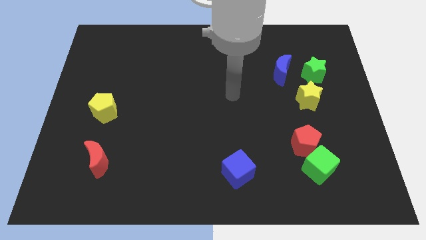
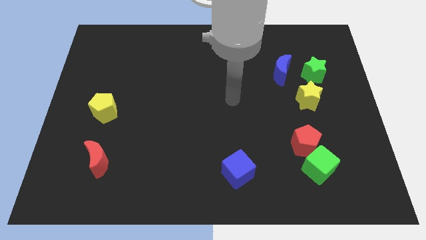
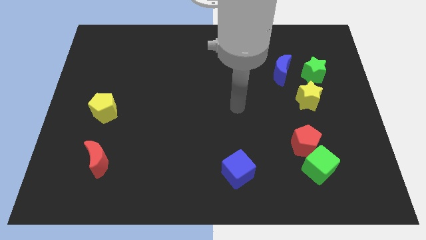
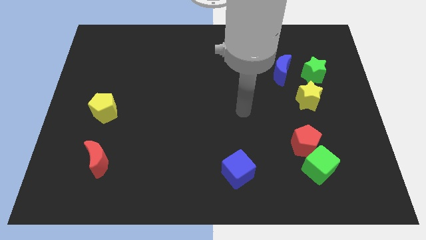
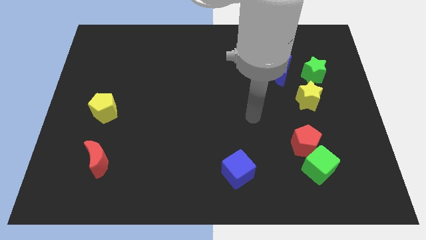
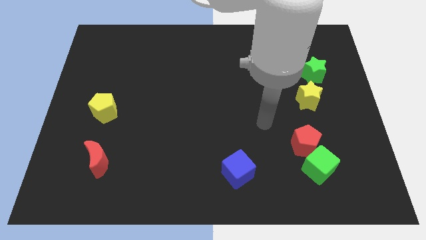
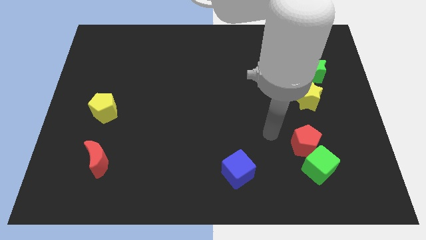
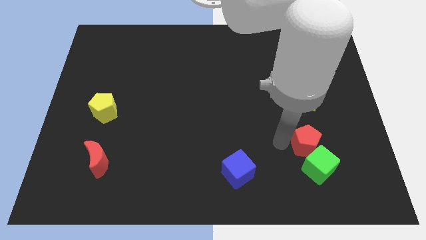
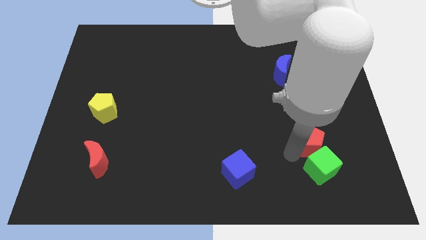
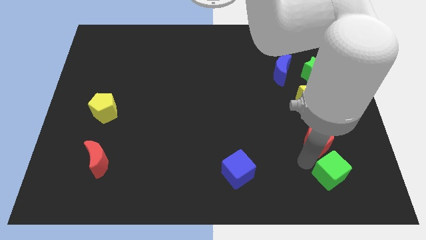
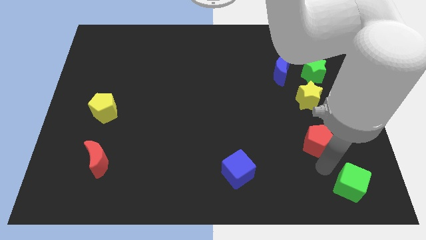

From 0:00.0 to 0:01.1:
move the red pentagon away from the green cube

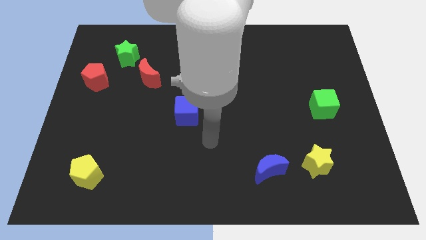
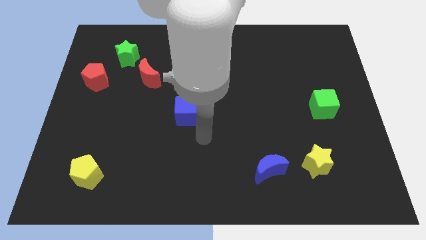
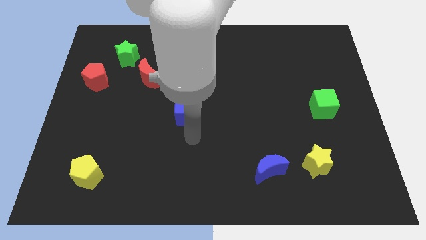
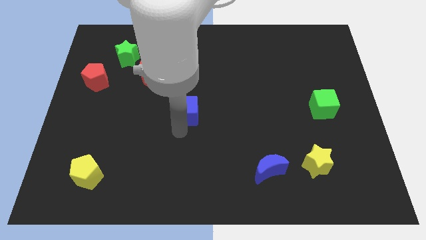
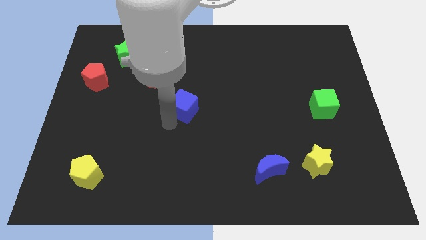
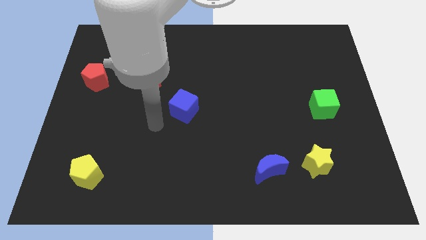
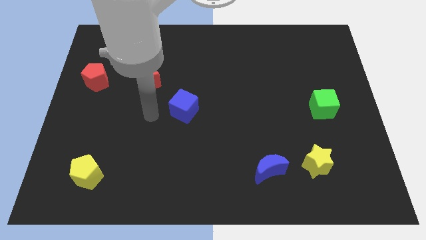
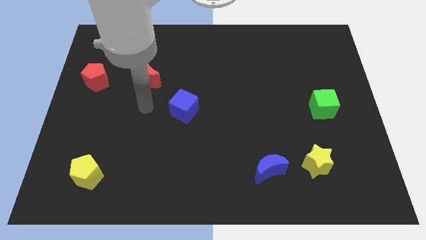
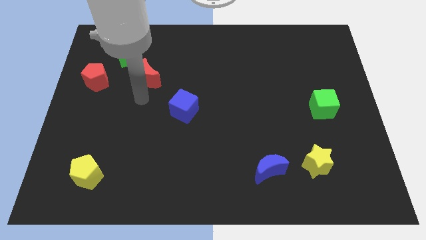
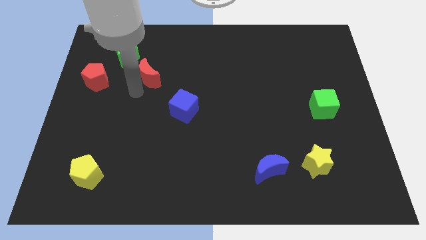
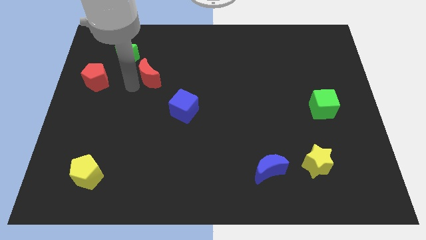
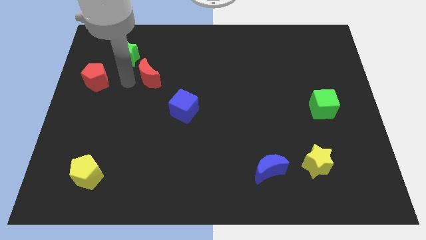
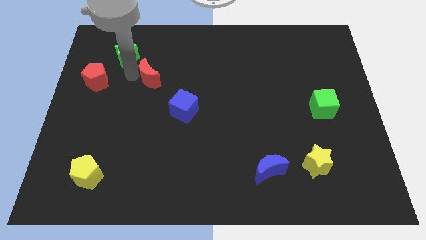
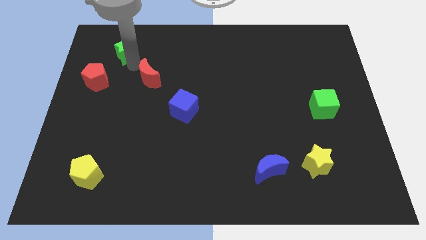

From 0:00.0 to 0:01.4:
separate the red moon from the green star

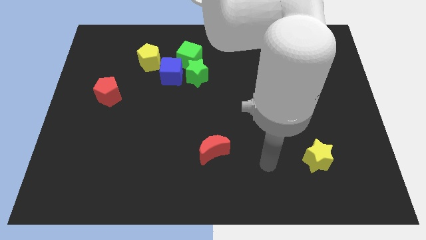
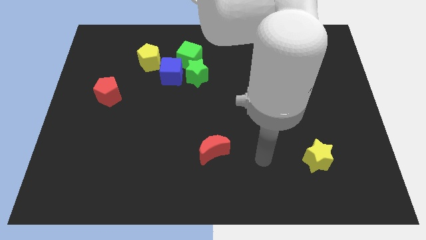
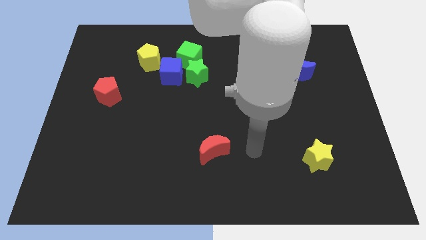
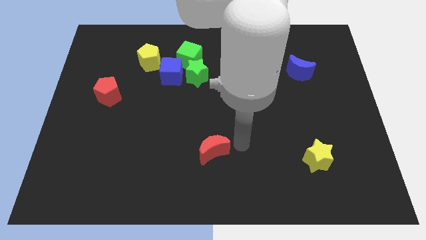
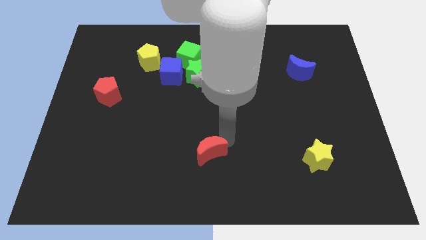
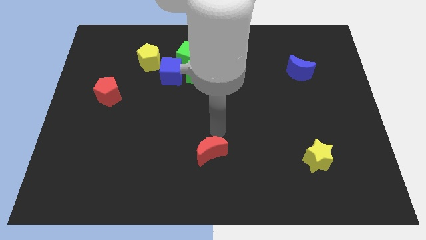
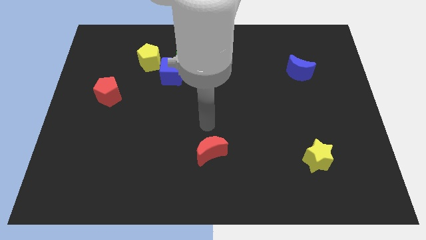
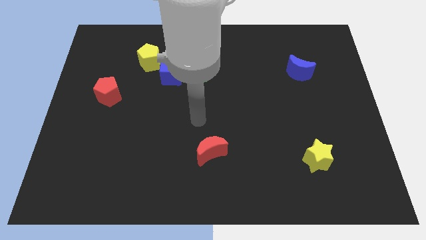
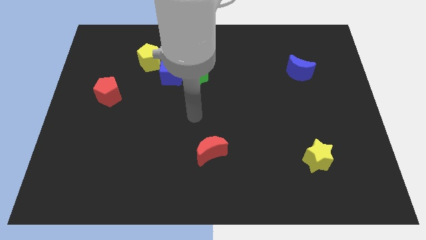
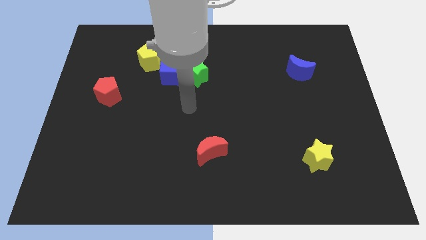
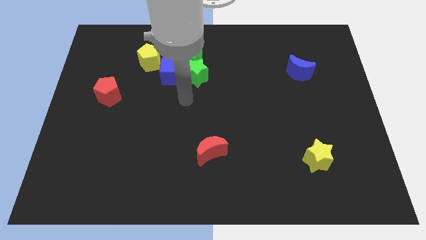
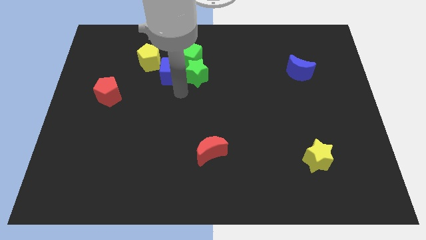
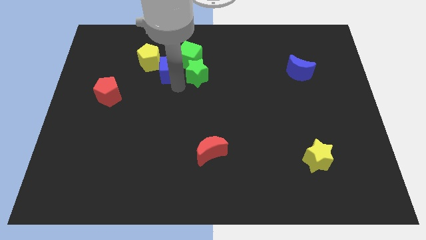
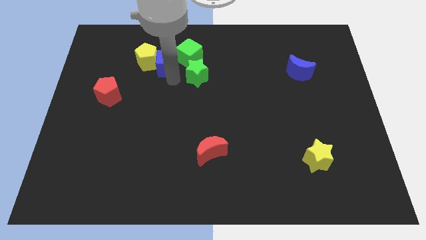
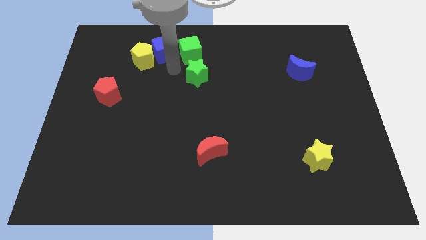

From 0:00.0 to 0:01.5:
move the green star away from the blue cube and green cube

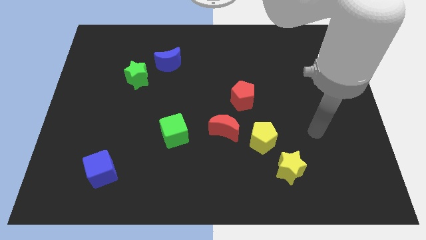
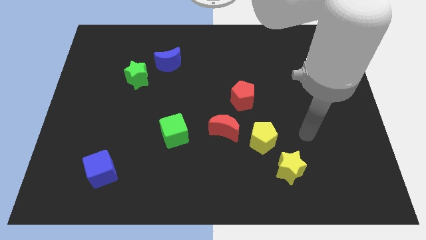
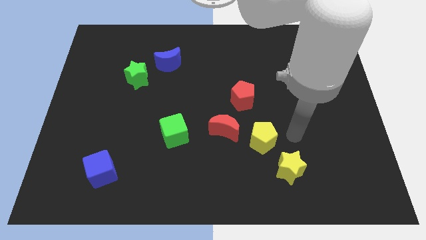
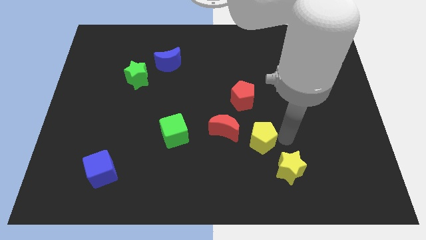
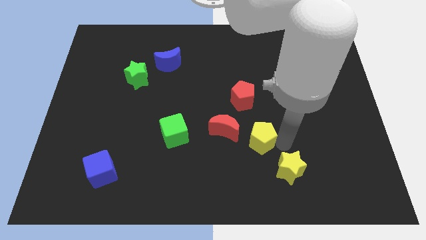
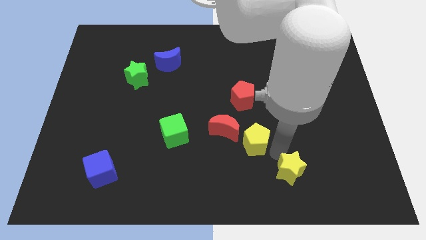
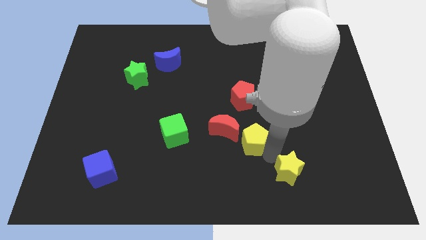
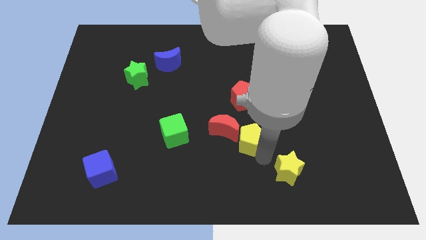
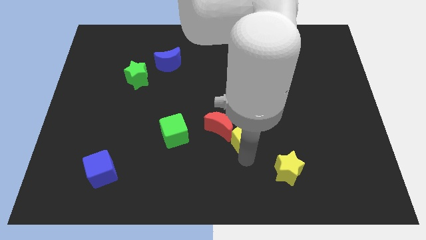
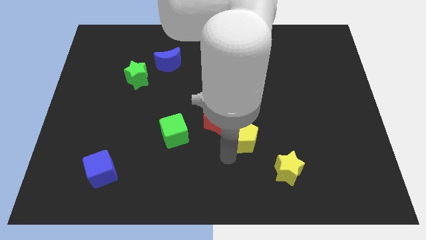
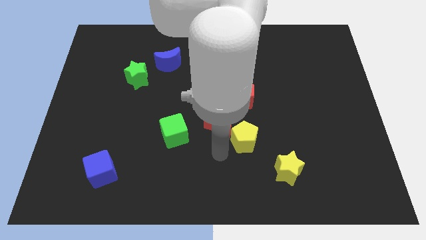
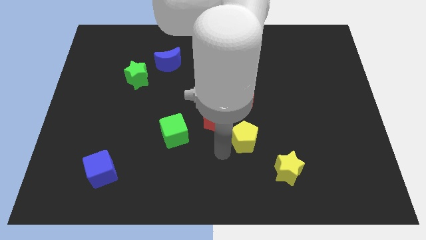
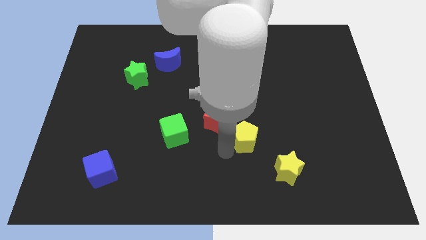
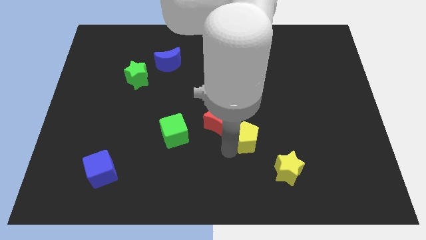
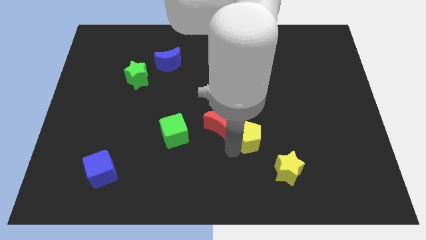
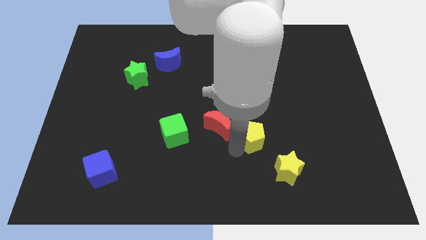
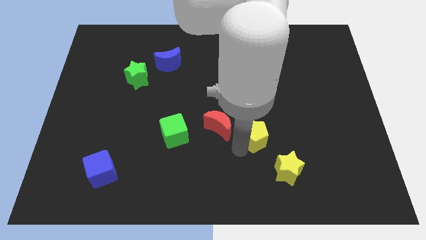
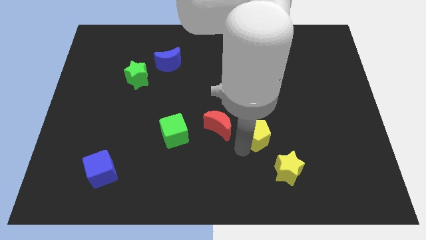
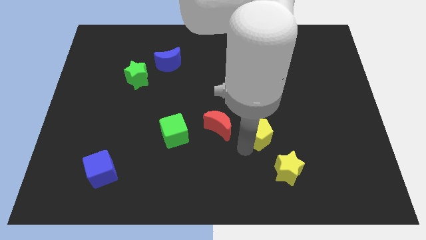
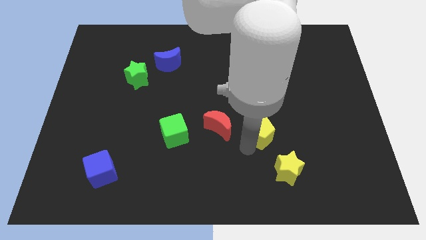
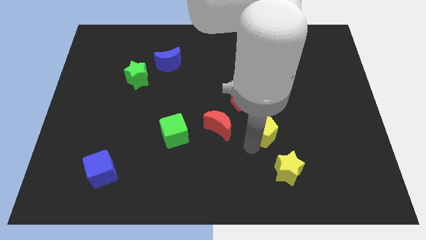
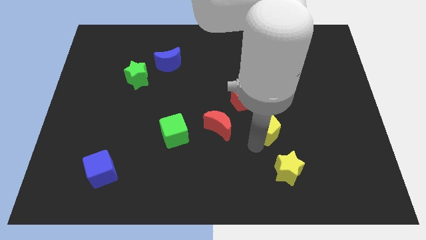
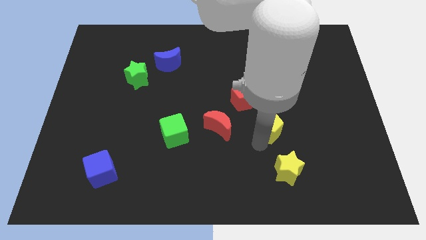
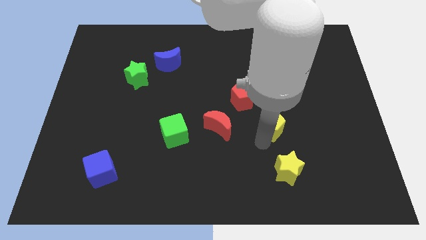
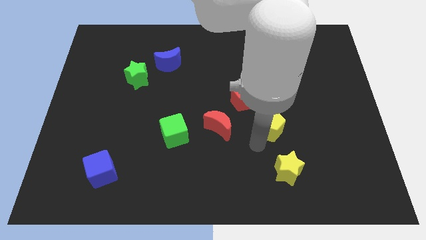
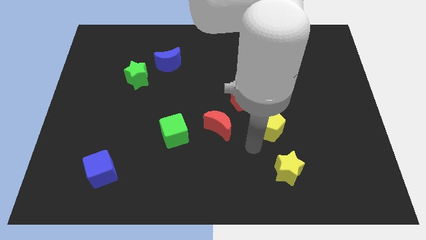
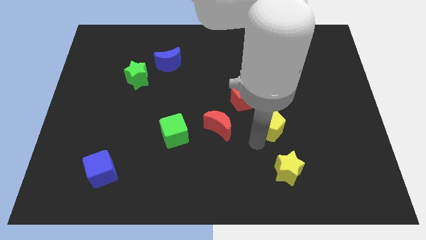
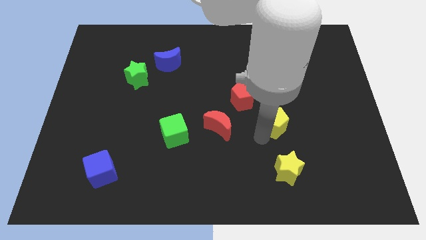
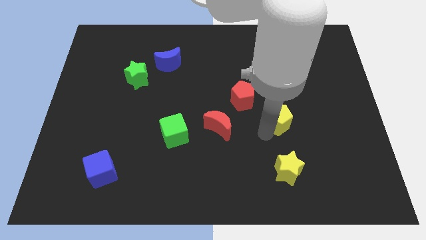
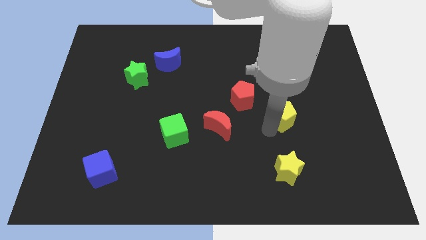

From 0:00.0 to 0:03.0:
separate the yellow pentagon from the red moon and yellow star

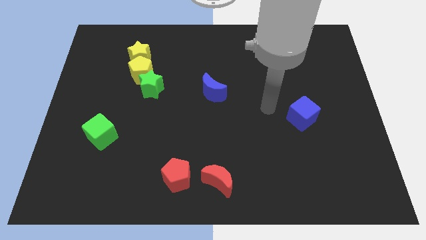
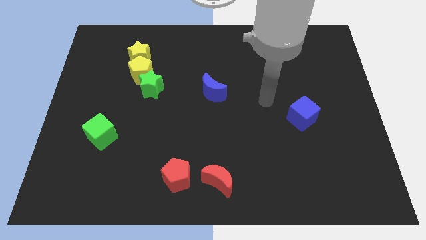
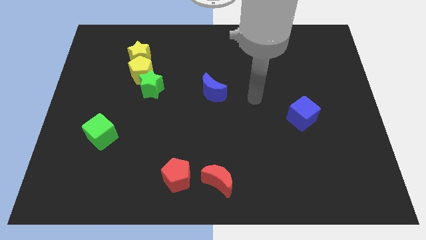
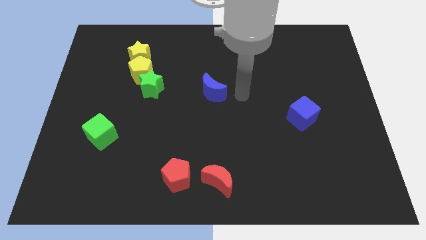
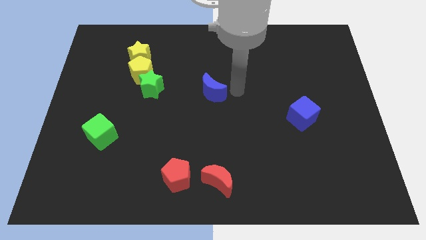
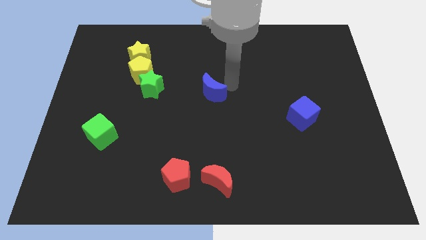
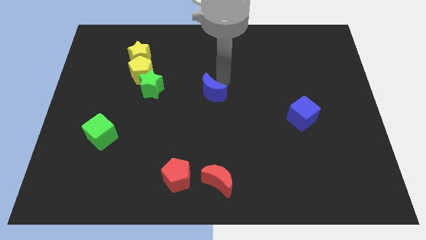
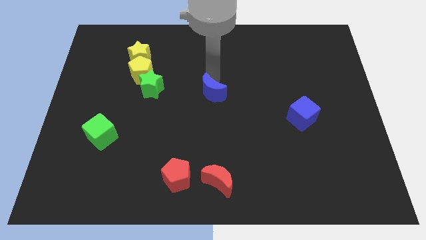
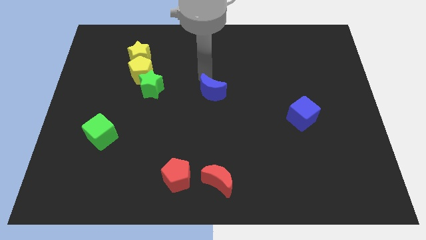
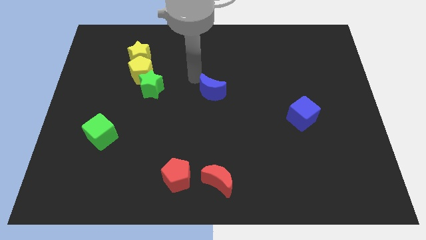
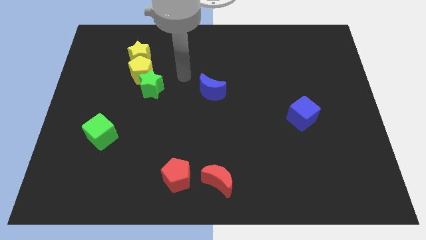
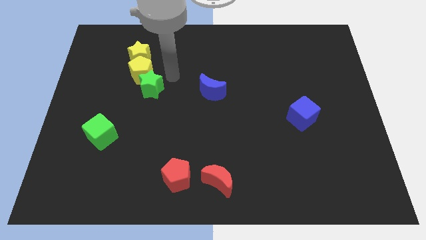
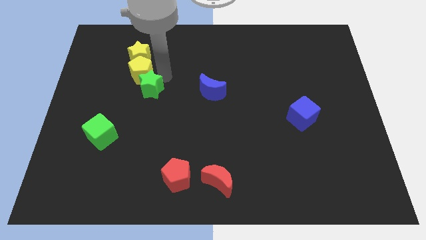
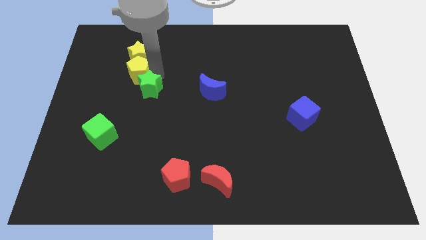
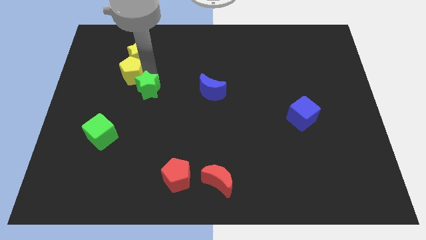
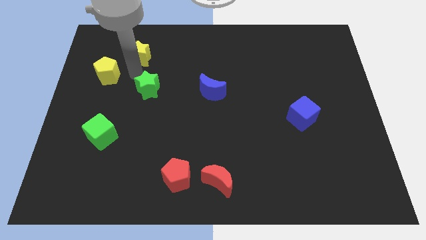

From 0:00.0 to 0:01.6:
separate the green star from the yellow pentagon

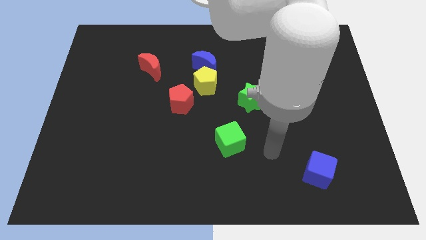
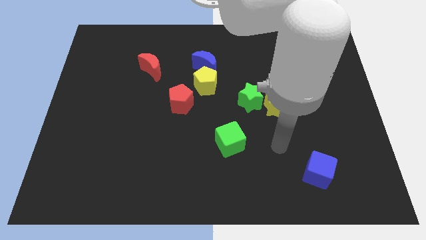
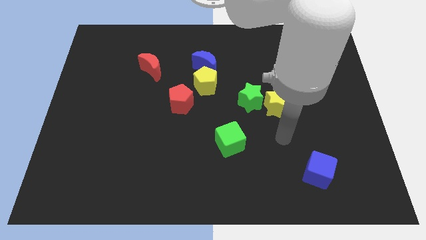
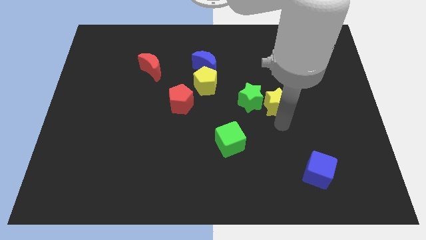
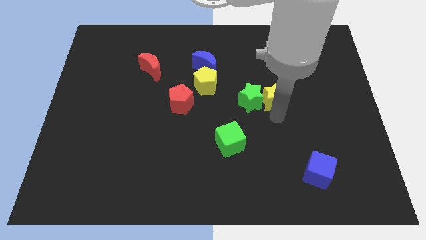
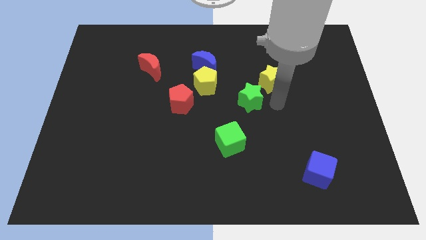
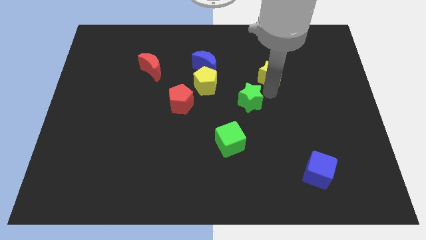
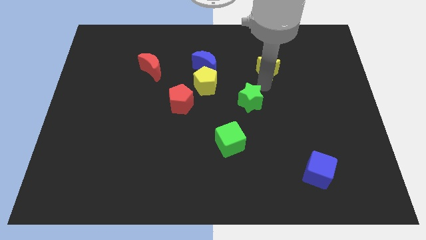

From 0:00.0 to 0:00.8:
separate the green star from the yellow star

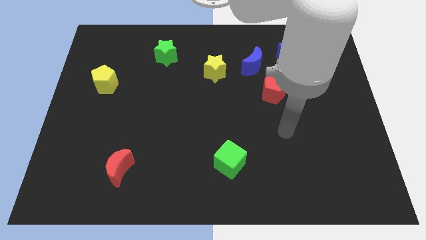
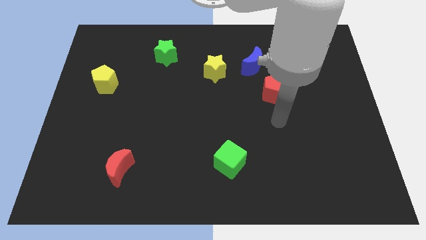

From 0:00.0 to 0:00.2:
pull the yellow star apart from the blue moon
